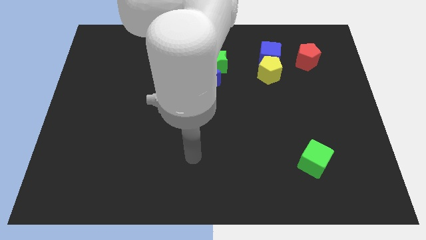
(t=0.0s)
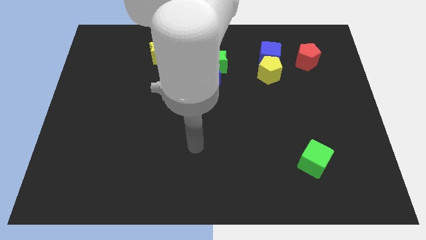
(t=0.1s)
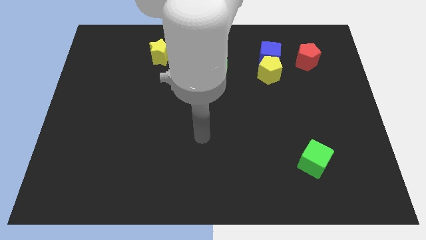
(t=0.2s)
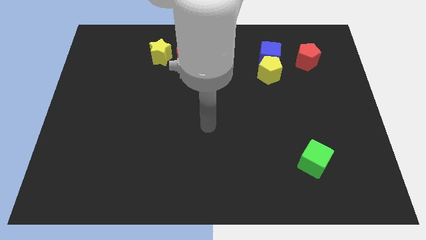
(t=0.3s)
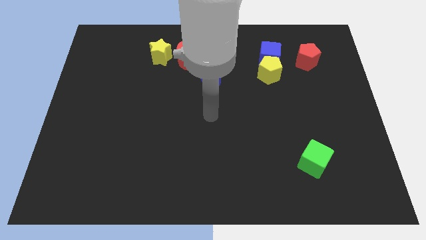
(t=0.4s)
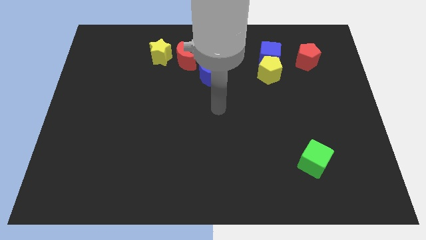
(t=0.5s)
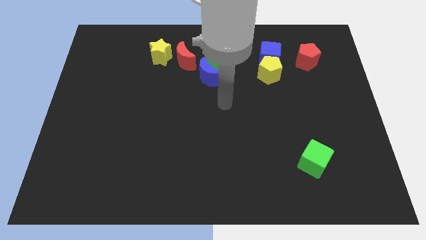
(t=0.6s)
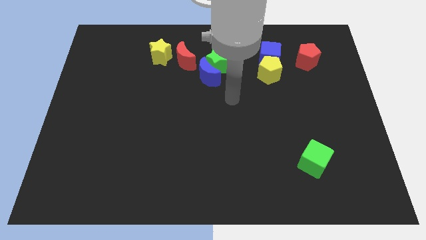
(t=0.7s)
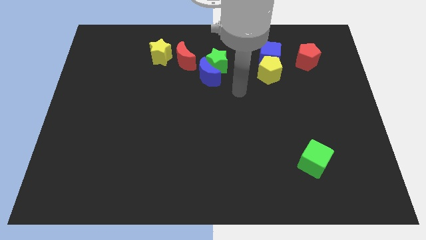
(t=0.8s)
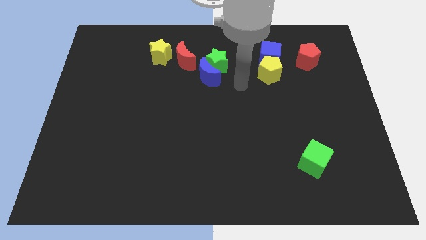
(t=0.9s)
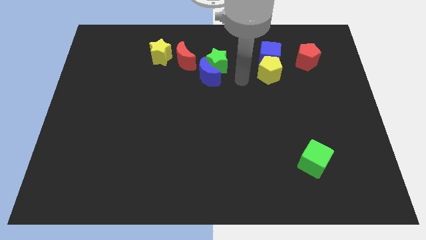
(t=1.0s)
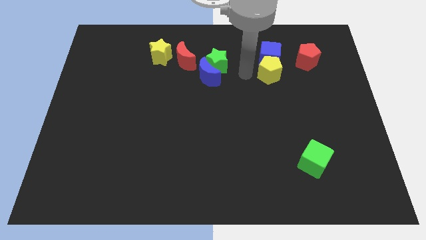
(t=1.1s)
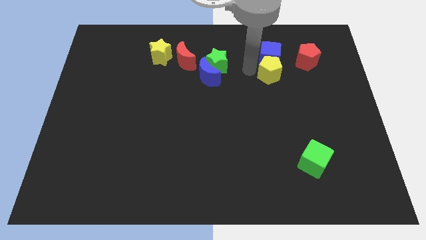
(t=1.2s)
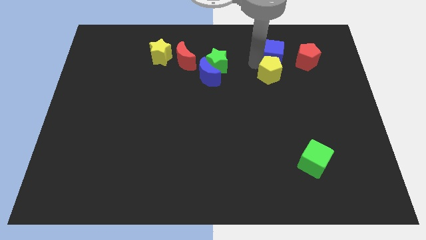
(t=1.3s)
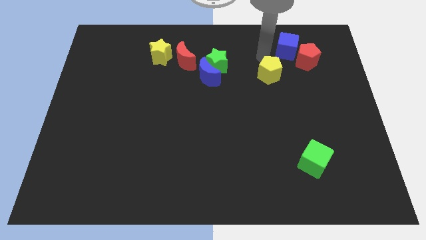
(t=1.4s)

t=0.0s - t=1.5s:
separate the yellow pentagon from the blue cube

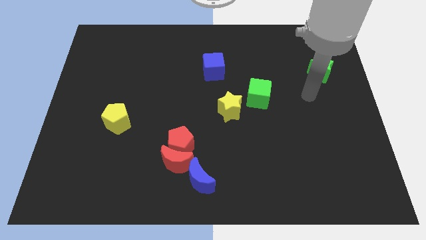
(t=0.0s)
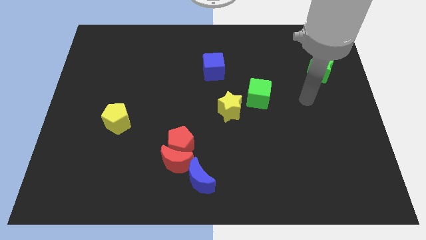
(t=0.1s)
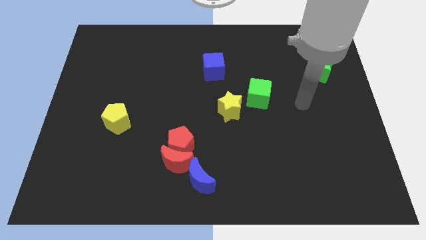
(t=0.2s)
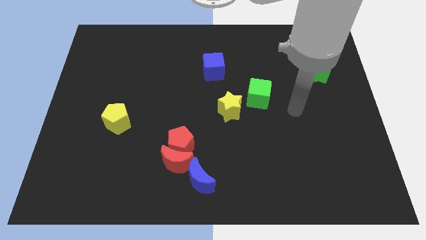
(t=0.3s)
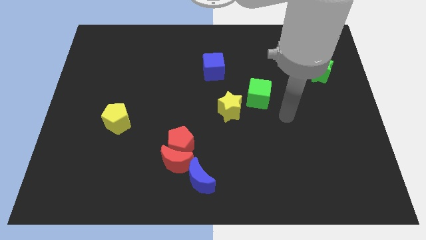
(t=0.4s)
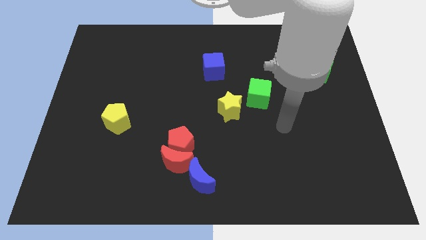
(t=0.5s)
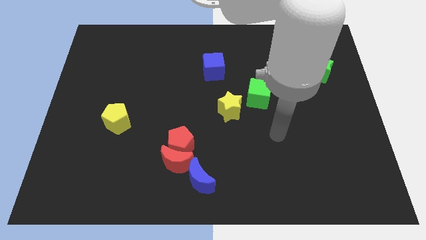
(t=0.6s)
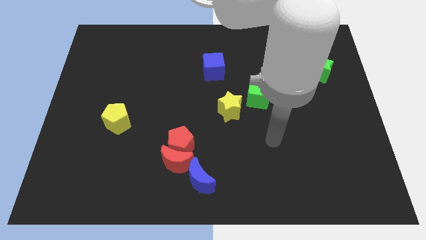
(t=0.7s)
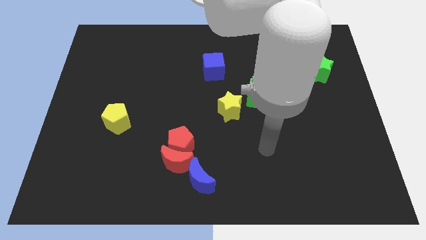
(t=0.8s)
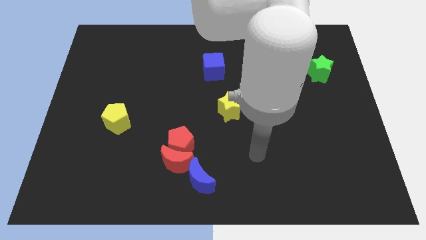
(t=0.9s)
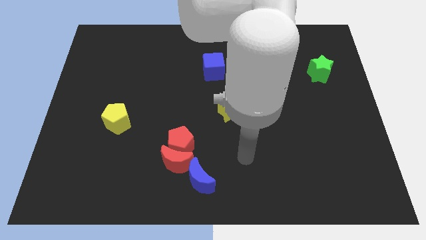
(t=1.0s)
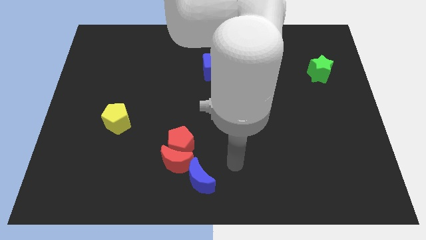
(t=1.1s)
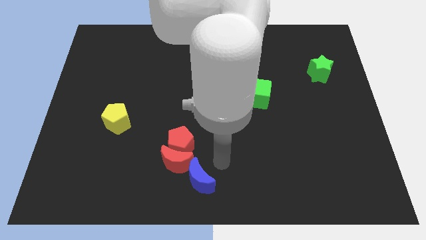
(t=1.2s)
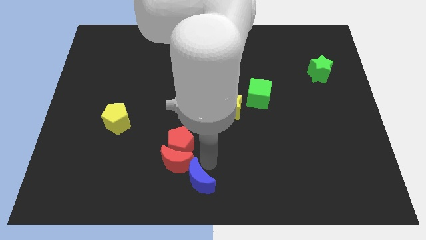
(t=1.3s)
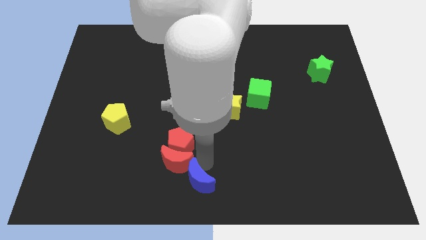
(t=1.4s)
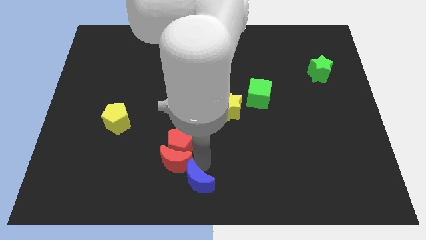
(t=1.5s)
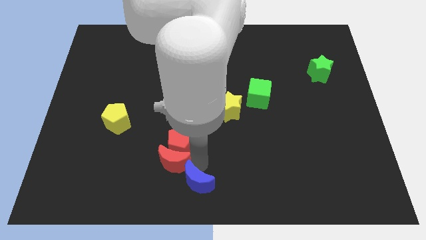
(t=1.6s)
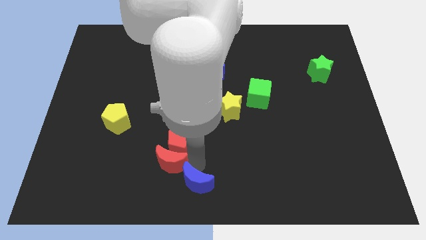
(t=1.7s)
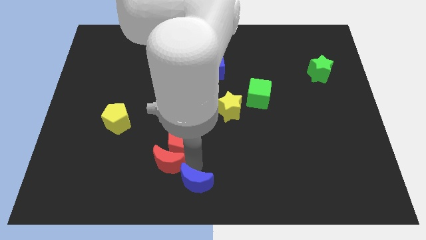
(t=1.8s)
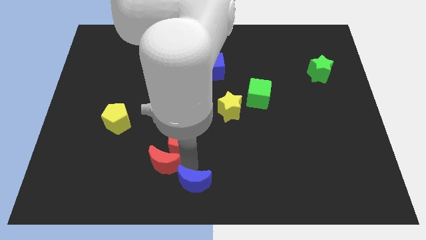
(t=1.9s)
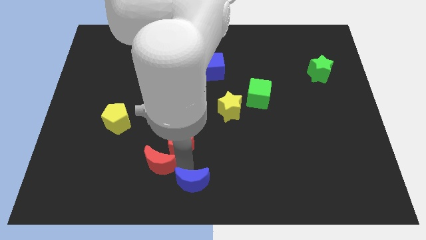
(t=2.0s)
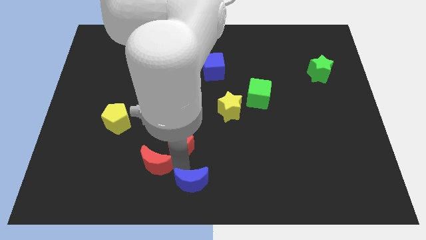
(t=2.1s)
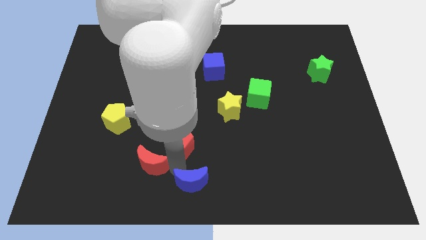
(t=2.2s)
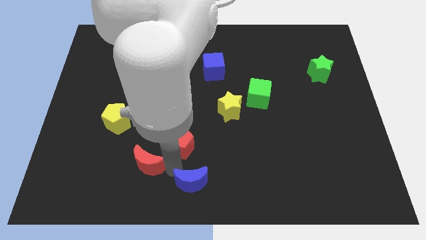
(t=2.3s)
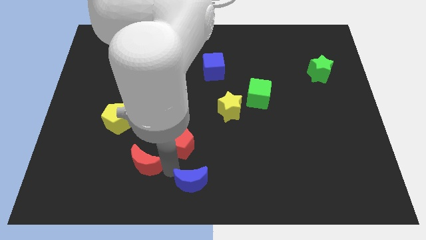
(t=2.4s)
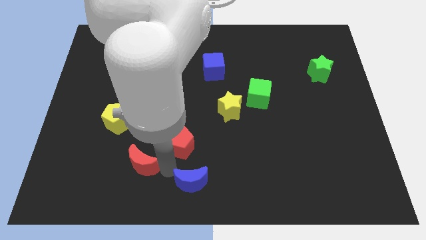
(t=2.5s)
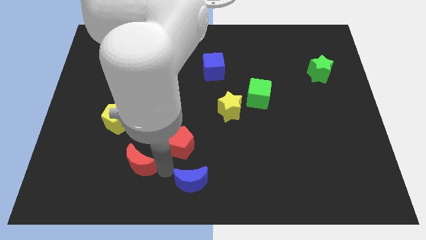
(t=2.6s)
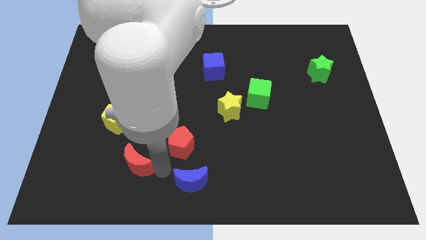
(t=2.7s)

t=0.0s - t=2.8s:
separate the red moon from the red pentagon and blue moon

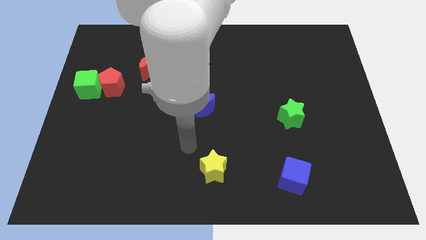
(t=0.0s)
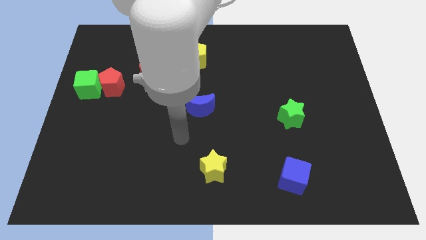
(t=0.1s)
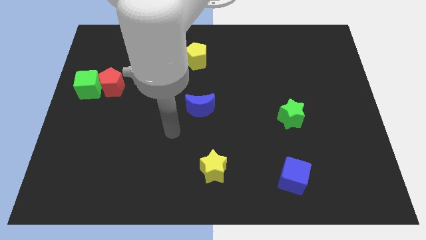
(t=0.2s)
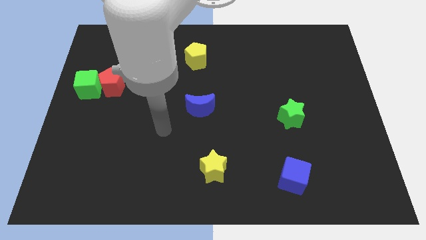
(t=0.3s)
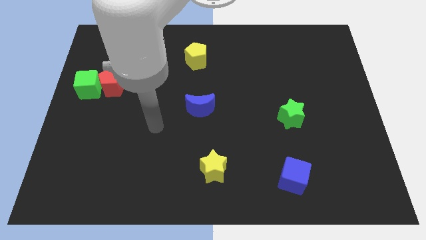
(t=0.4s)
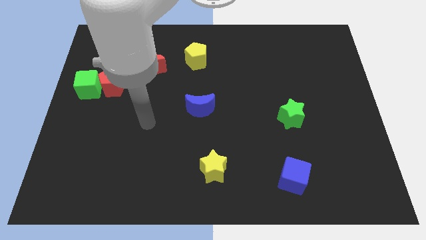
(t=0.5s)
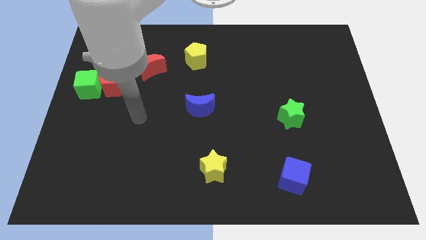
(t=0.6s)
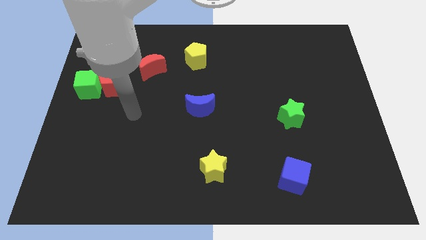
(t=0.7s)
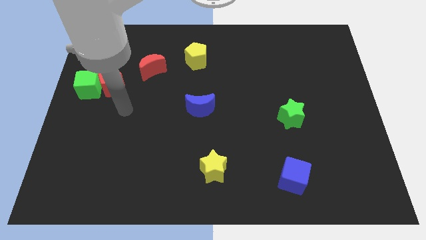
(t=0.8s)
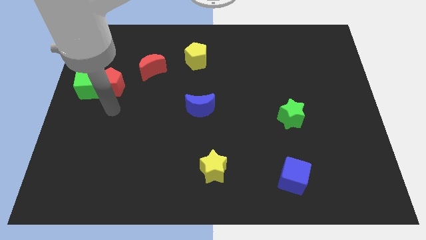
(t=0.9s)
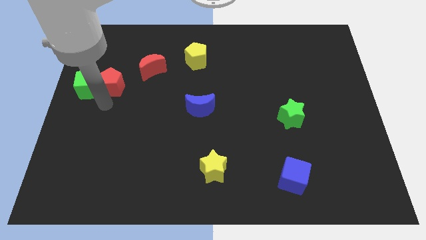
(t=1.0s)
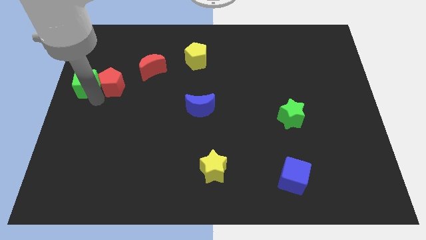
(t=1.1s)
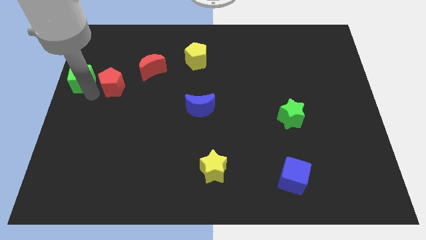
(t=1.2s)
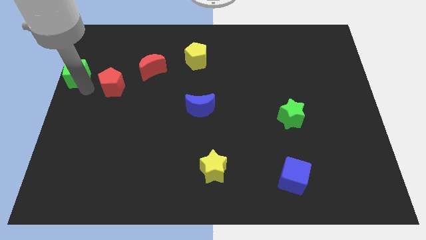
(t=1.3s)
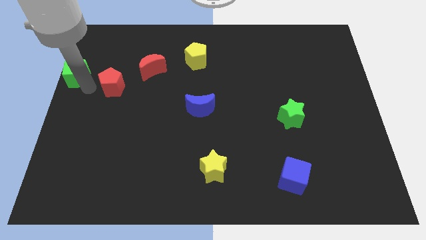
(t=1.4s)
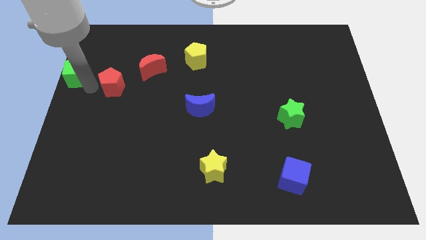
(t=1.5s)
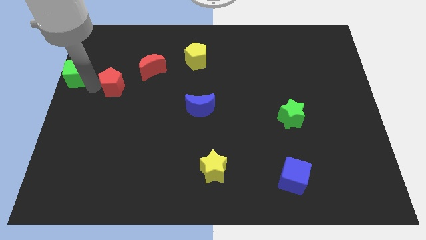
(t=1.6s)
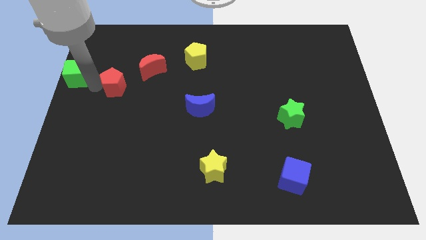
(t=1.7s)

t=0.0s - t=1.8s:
pull the red pentagon apart from the green cube

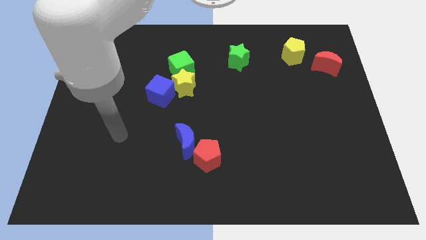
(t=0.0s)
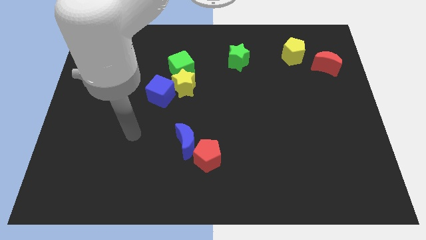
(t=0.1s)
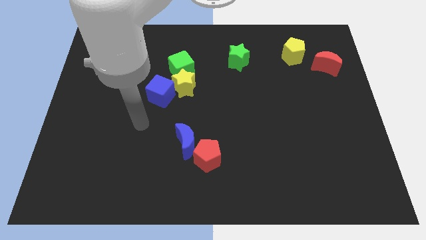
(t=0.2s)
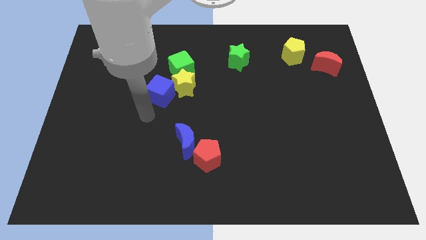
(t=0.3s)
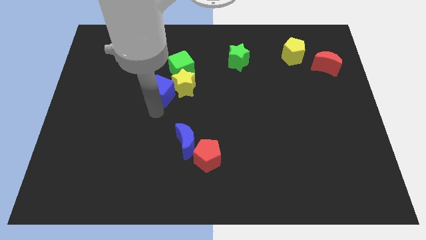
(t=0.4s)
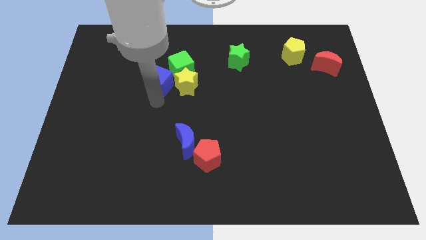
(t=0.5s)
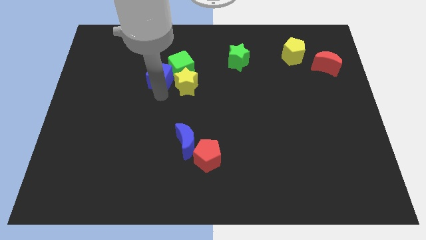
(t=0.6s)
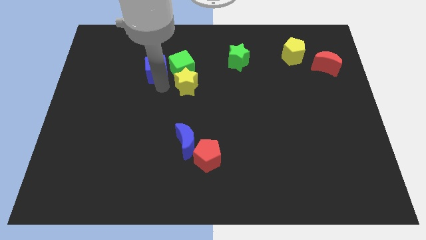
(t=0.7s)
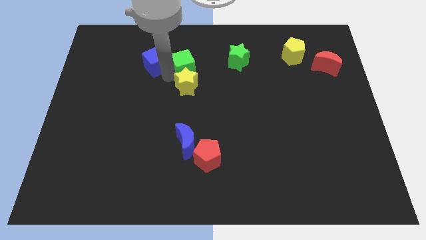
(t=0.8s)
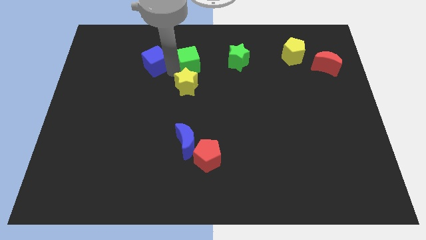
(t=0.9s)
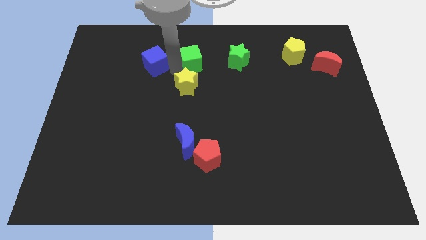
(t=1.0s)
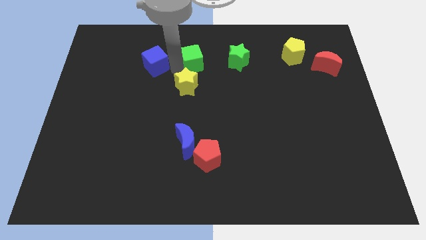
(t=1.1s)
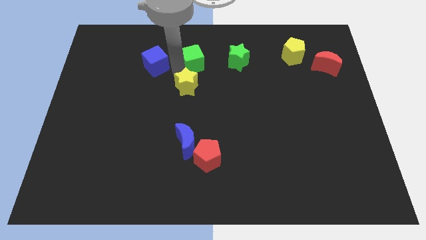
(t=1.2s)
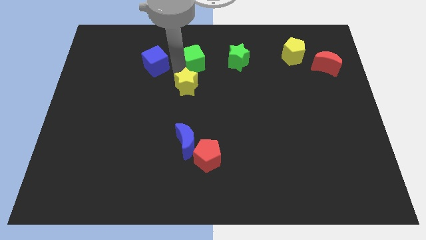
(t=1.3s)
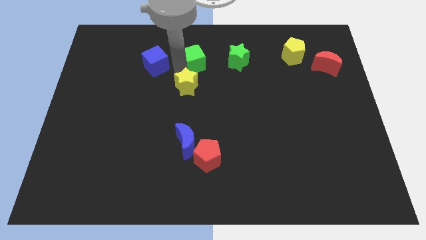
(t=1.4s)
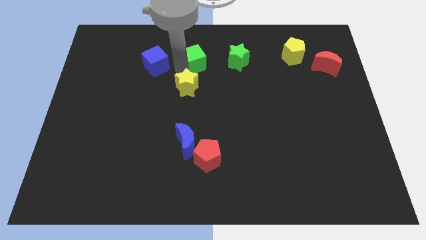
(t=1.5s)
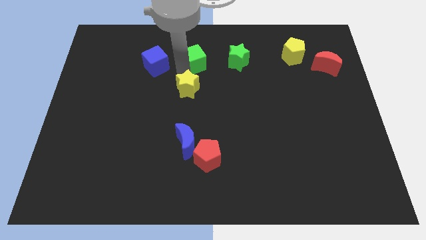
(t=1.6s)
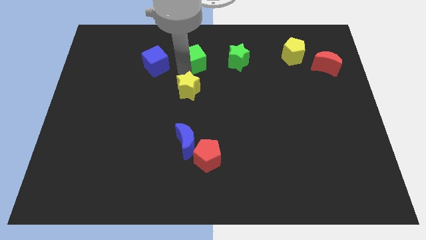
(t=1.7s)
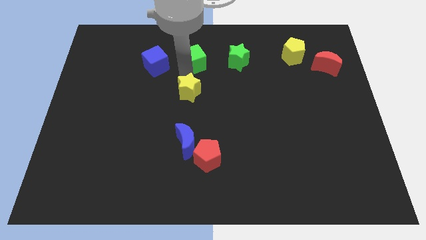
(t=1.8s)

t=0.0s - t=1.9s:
separate the yellow star from the blue cube and green cube

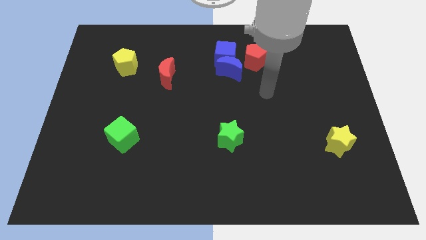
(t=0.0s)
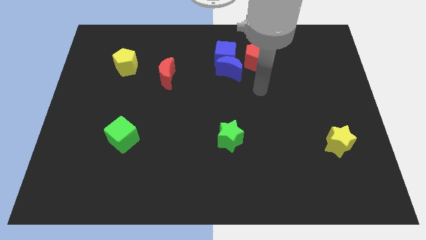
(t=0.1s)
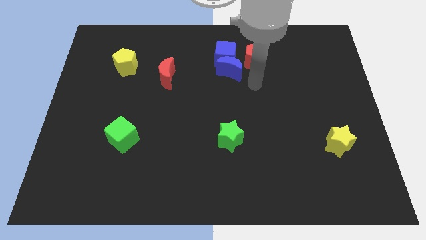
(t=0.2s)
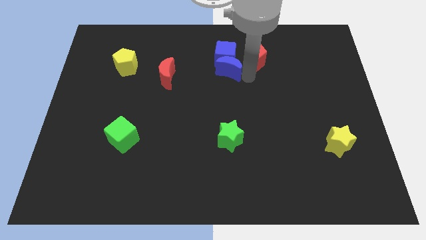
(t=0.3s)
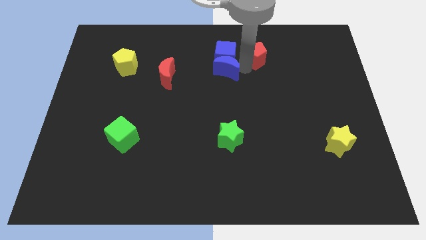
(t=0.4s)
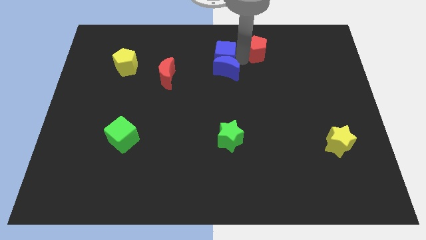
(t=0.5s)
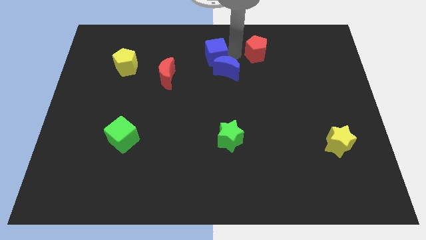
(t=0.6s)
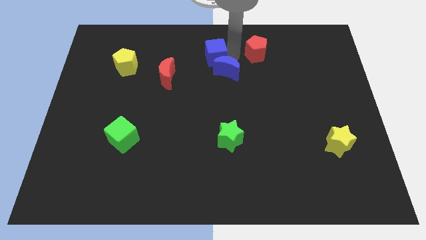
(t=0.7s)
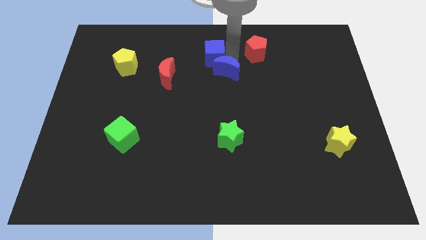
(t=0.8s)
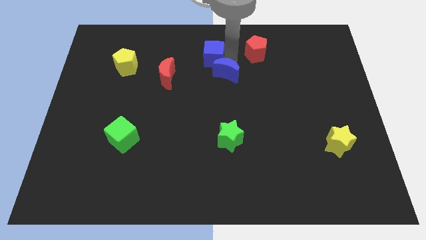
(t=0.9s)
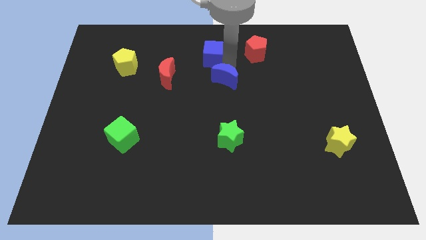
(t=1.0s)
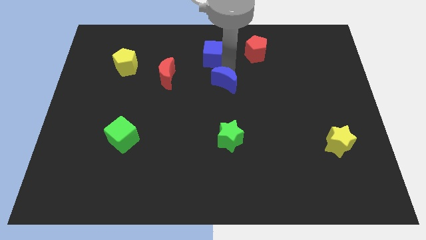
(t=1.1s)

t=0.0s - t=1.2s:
move the blue moon away from the blue cube and red pentagon

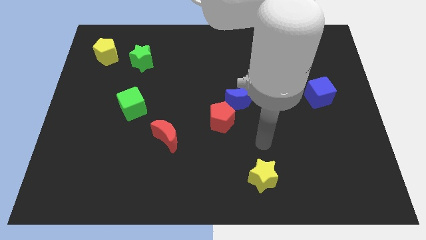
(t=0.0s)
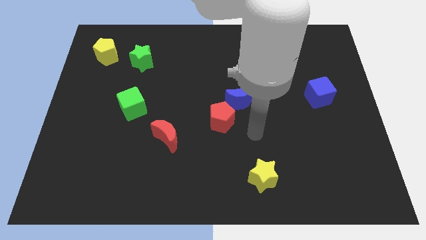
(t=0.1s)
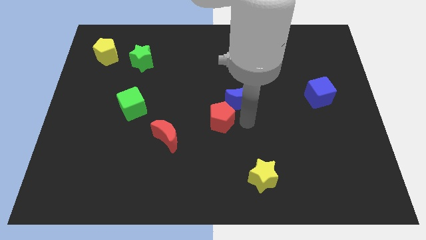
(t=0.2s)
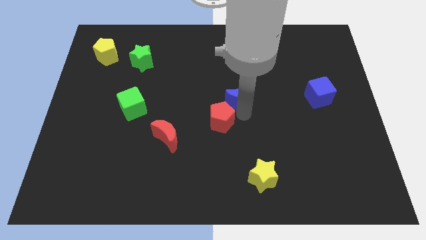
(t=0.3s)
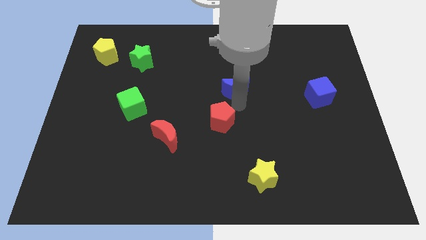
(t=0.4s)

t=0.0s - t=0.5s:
separate the red pentagon from the blue moon
